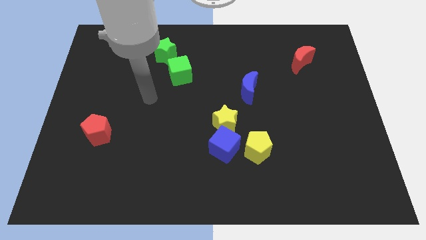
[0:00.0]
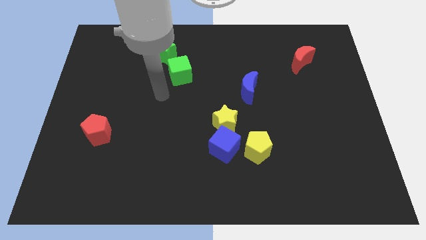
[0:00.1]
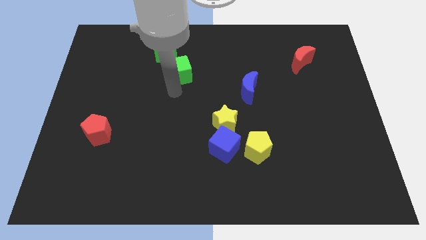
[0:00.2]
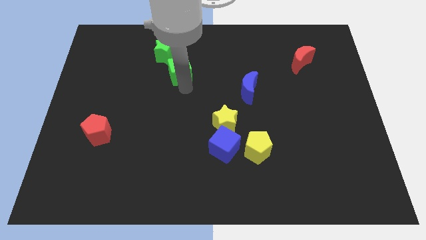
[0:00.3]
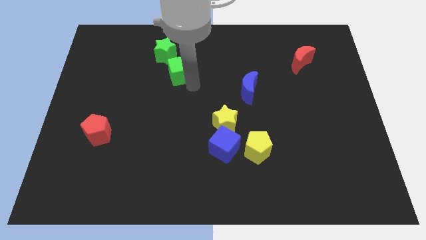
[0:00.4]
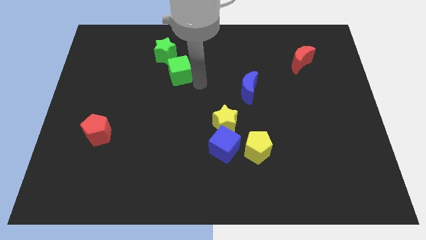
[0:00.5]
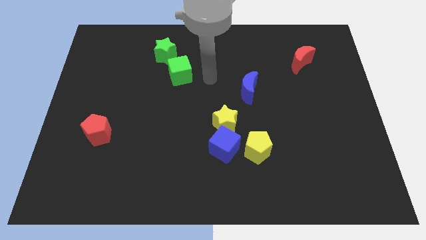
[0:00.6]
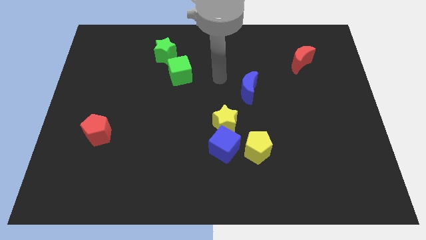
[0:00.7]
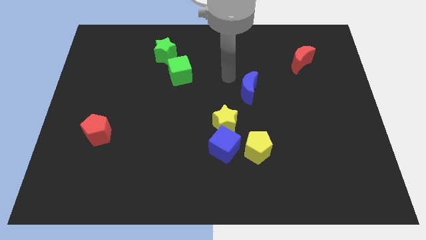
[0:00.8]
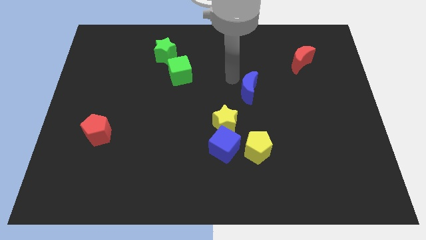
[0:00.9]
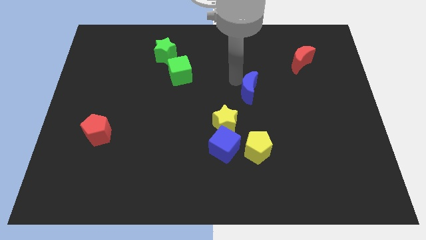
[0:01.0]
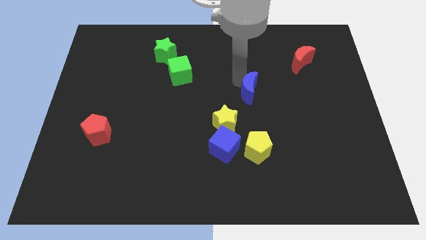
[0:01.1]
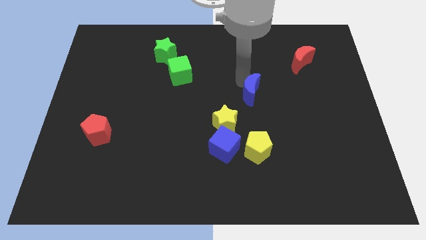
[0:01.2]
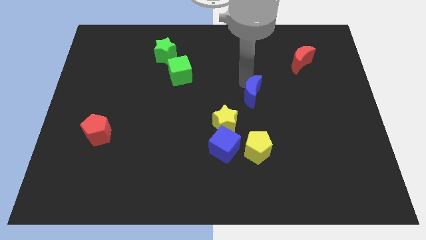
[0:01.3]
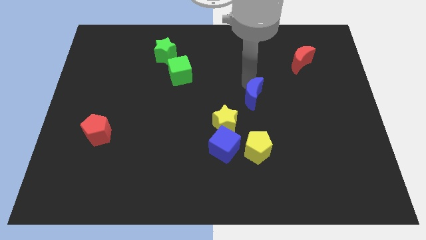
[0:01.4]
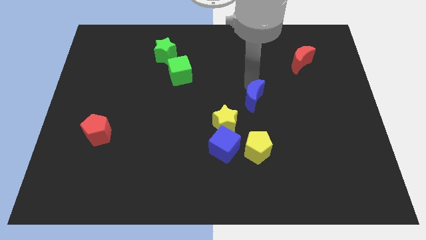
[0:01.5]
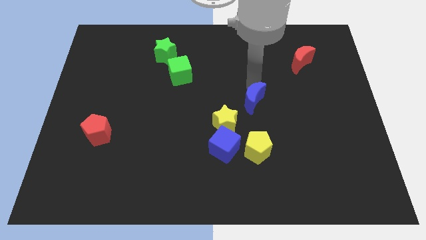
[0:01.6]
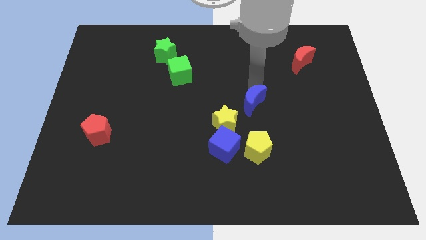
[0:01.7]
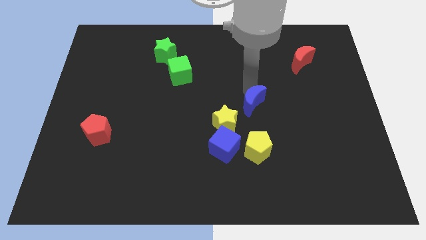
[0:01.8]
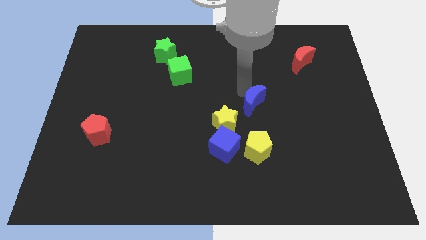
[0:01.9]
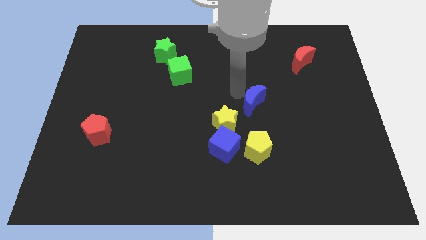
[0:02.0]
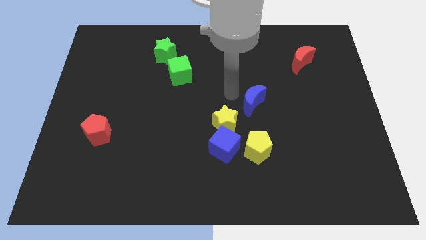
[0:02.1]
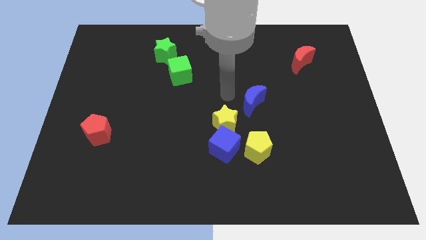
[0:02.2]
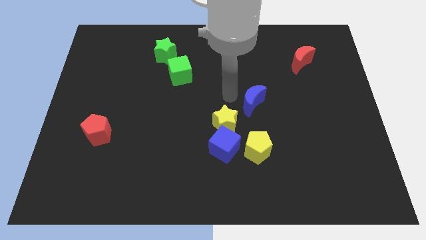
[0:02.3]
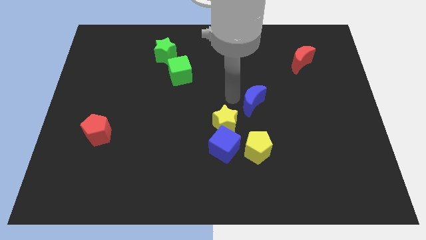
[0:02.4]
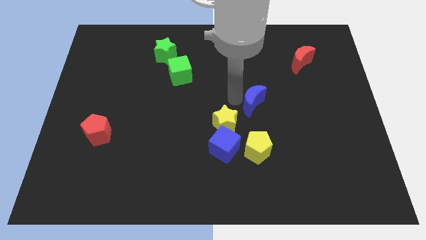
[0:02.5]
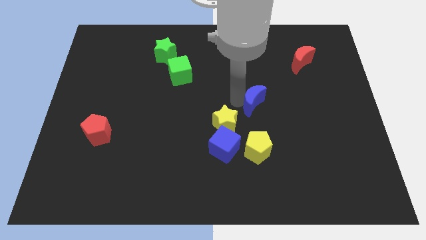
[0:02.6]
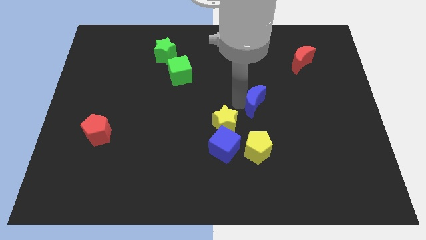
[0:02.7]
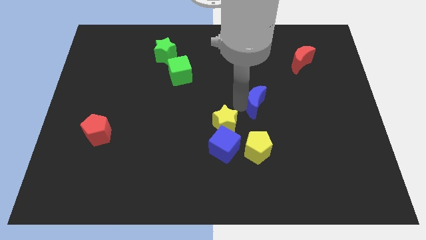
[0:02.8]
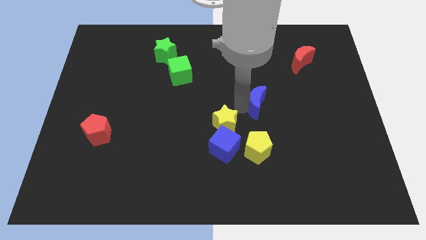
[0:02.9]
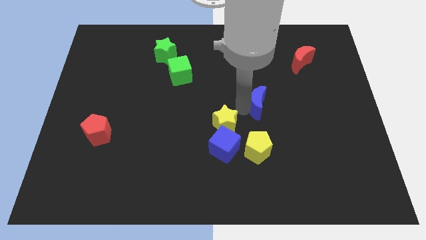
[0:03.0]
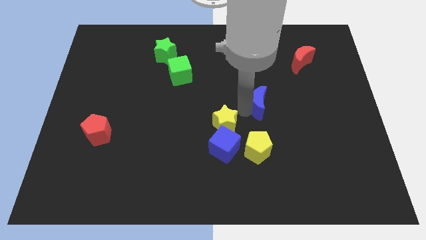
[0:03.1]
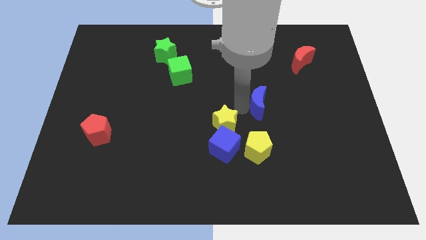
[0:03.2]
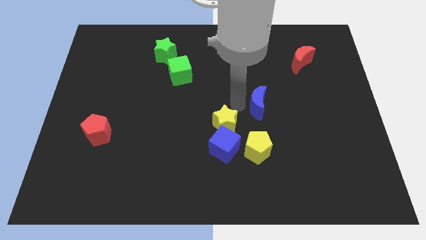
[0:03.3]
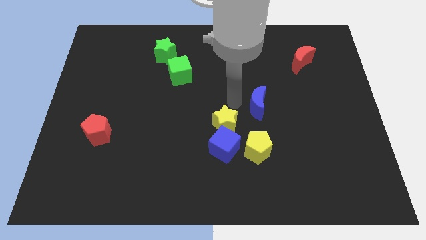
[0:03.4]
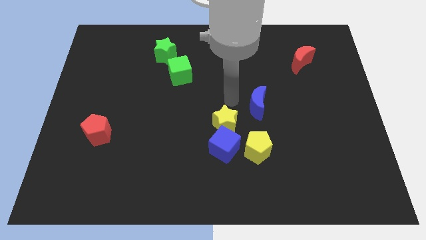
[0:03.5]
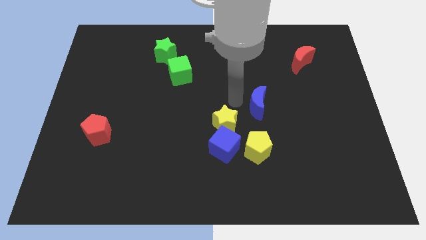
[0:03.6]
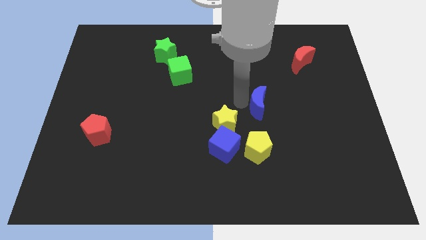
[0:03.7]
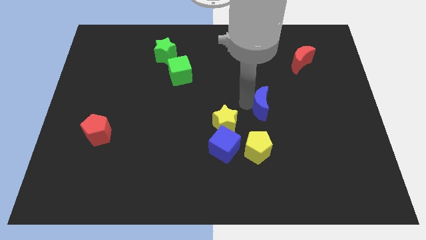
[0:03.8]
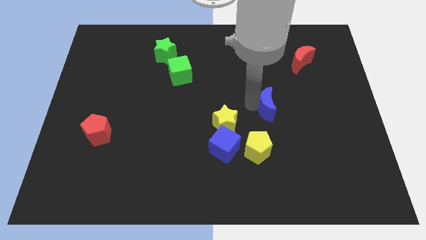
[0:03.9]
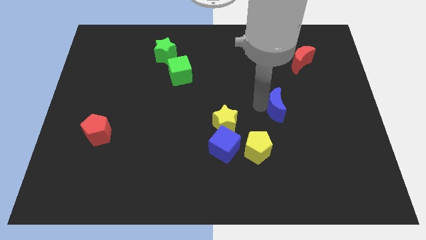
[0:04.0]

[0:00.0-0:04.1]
slide the blue moon a little downwards and to the right diagonally

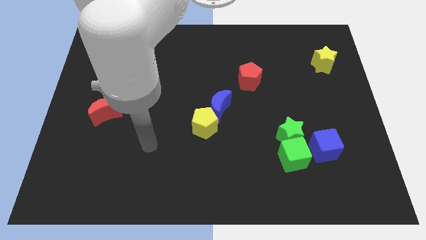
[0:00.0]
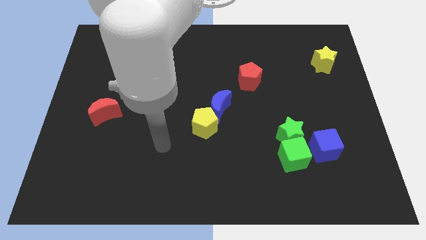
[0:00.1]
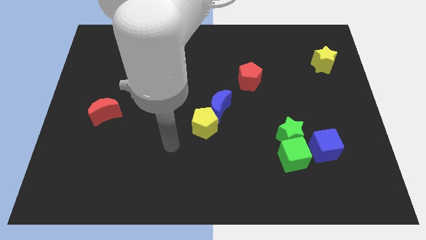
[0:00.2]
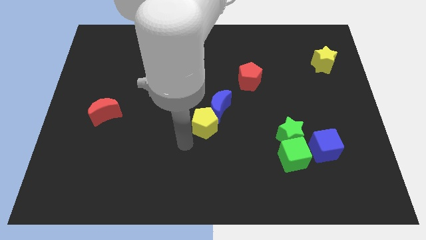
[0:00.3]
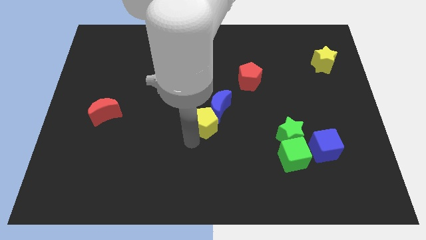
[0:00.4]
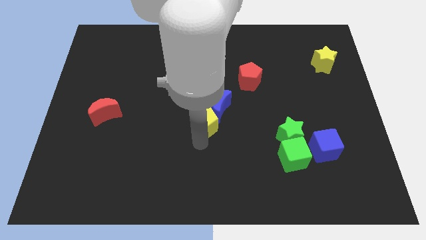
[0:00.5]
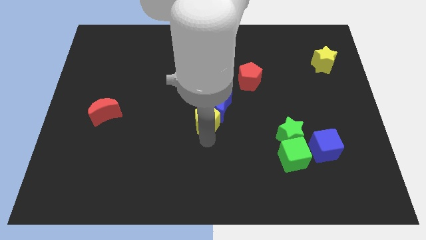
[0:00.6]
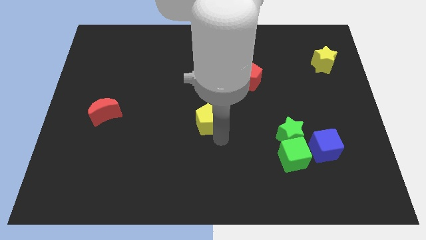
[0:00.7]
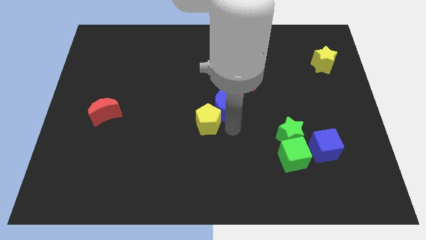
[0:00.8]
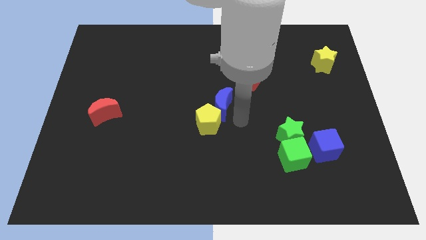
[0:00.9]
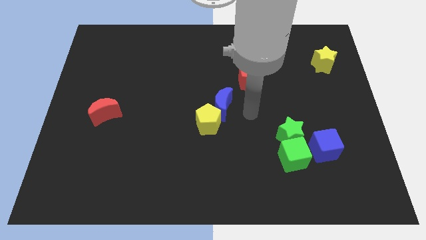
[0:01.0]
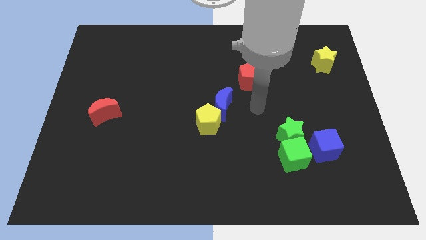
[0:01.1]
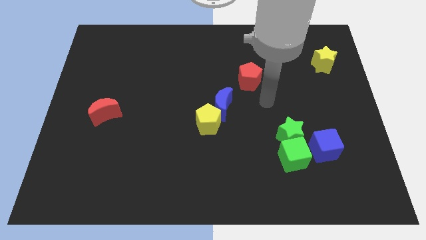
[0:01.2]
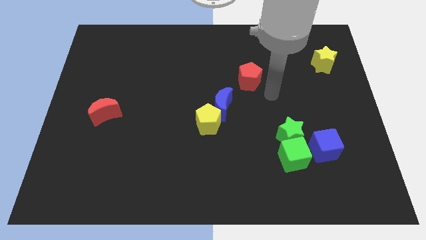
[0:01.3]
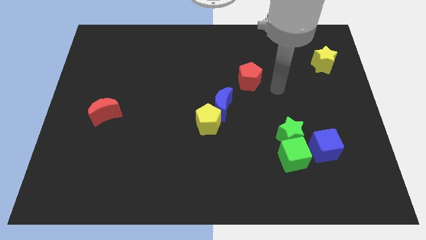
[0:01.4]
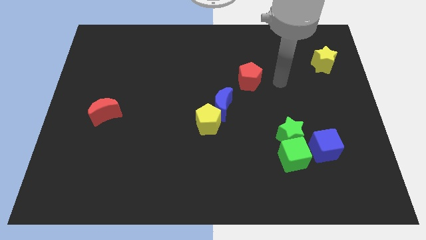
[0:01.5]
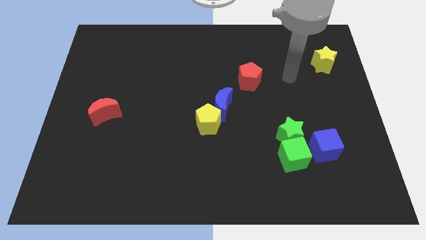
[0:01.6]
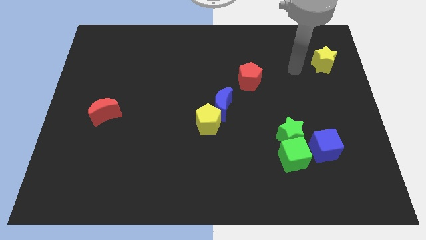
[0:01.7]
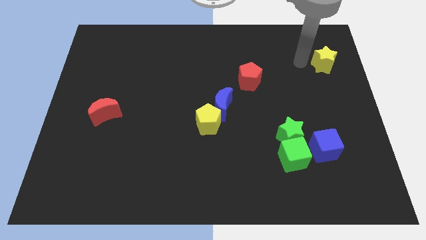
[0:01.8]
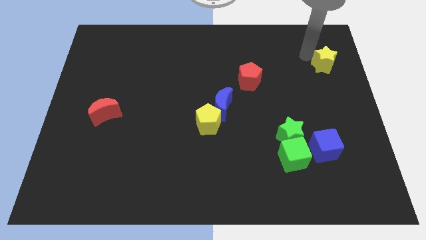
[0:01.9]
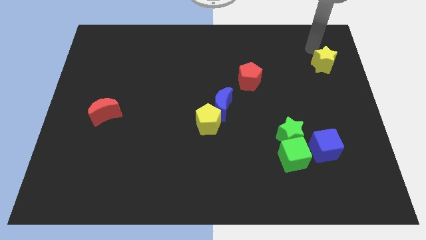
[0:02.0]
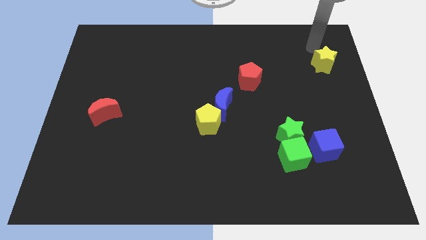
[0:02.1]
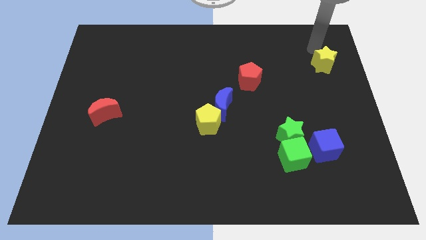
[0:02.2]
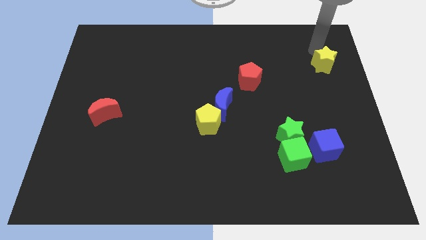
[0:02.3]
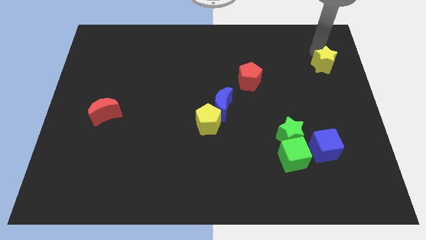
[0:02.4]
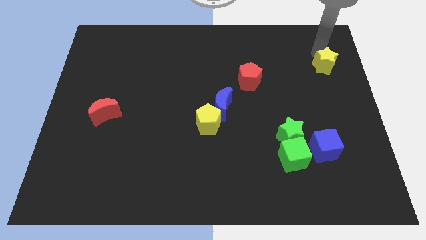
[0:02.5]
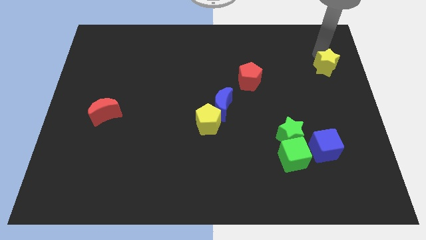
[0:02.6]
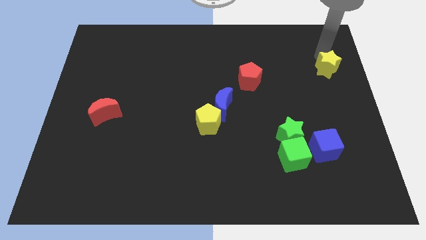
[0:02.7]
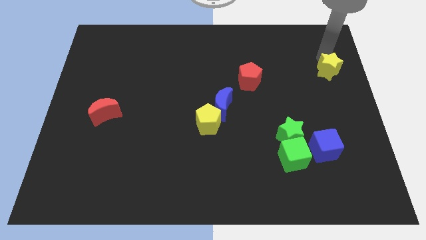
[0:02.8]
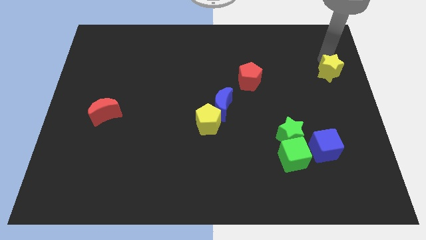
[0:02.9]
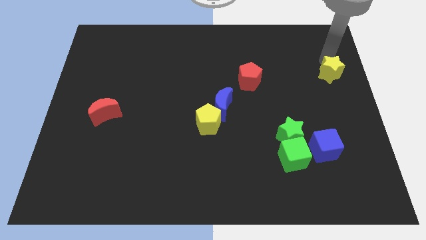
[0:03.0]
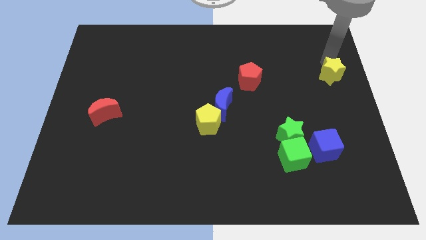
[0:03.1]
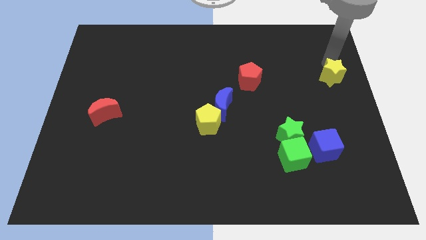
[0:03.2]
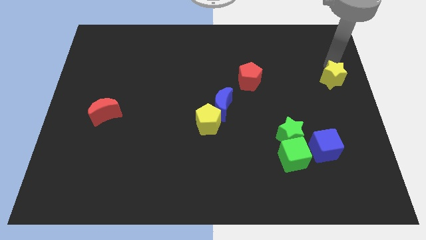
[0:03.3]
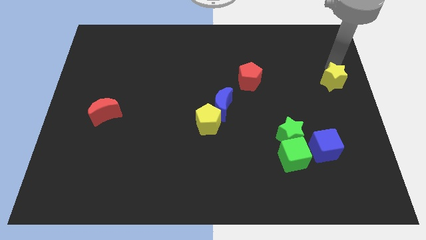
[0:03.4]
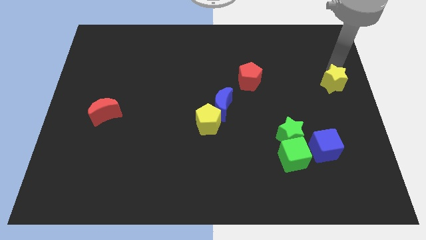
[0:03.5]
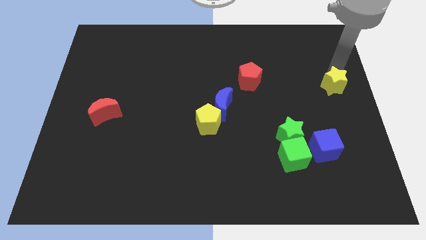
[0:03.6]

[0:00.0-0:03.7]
move the yellow star downwards a bit

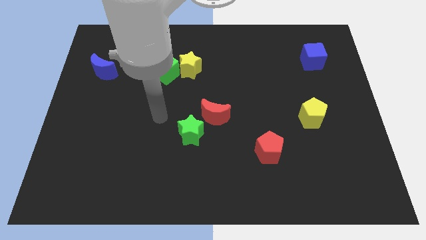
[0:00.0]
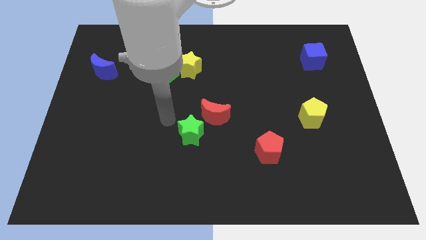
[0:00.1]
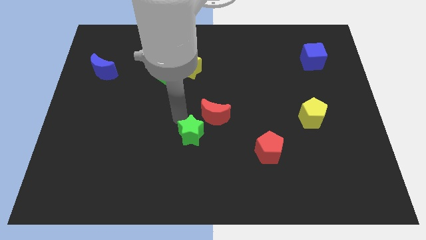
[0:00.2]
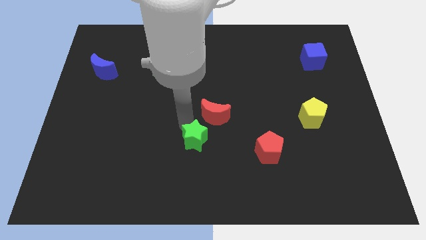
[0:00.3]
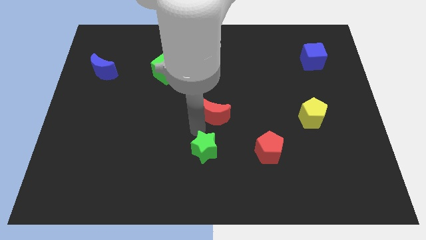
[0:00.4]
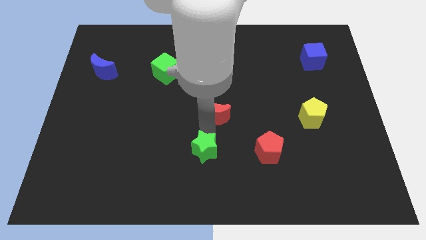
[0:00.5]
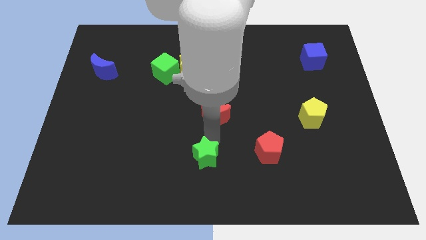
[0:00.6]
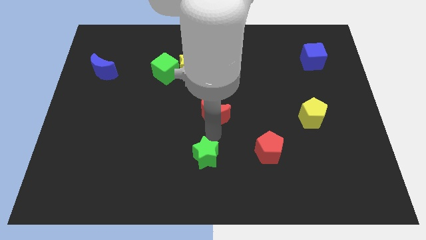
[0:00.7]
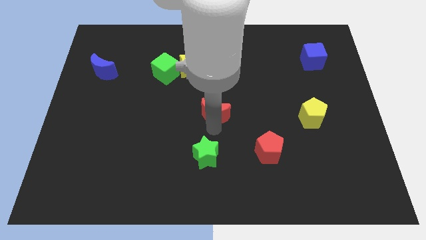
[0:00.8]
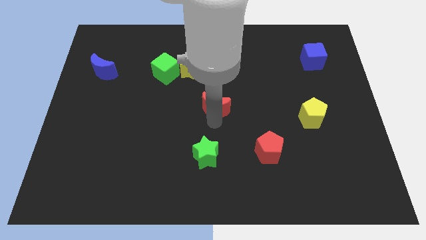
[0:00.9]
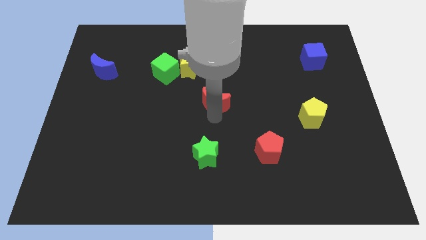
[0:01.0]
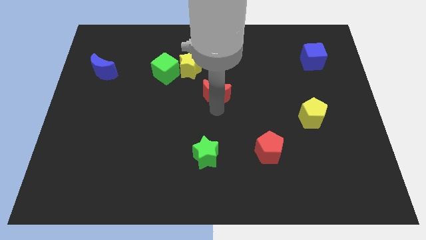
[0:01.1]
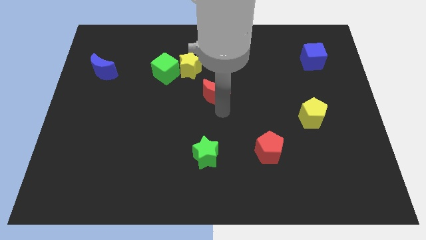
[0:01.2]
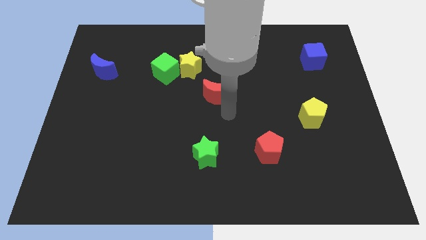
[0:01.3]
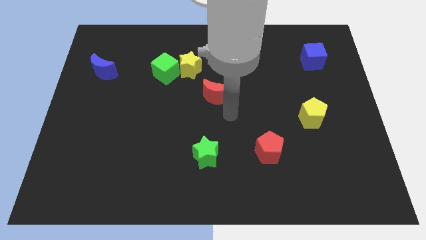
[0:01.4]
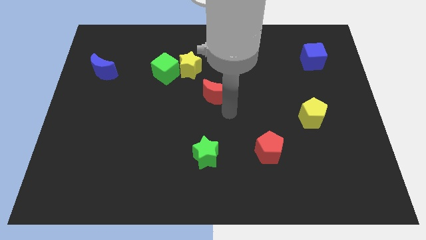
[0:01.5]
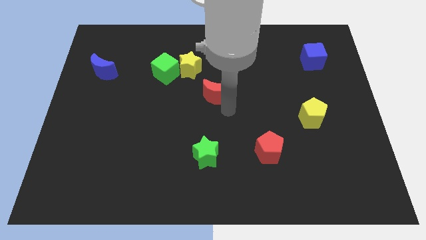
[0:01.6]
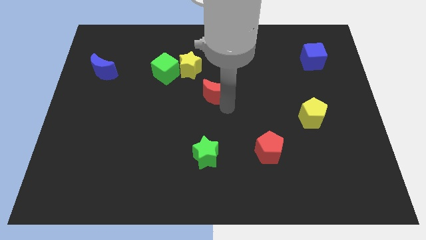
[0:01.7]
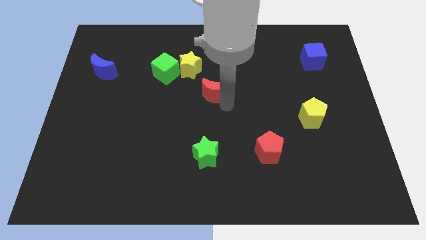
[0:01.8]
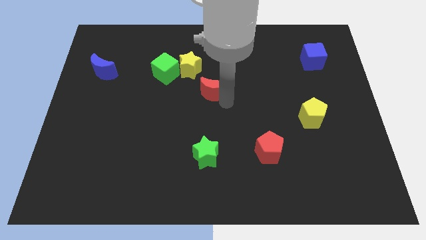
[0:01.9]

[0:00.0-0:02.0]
slightly slide the red moon upwards
